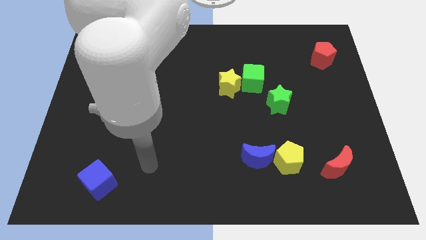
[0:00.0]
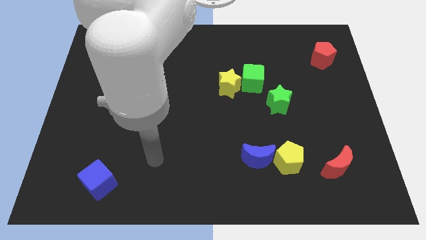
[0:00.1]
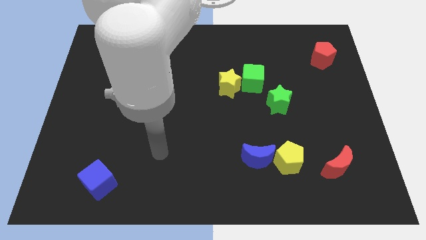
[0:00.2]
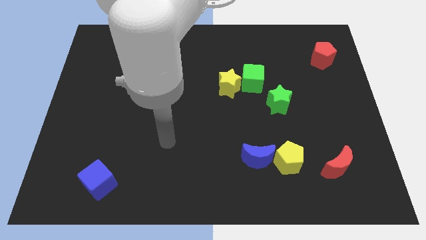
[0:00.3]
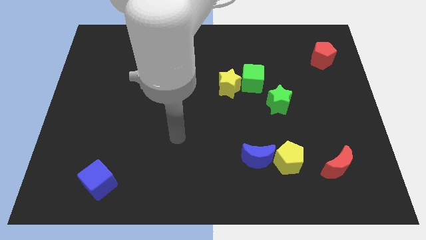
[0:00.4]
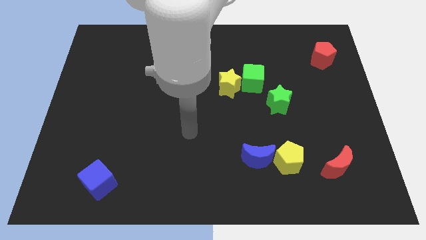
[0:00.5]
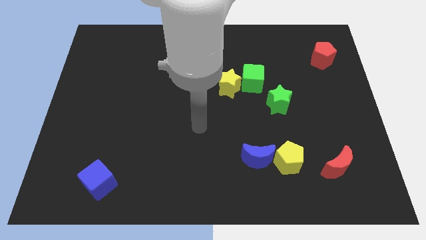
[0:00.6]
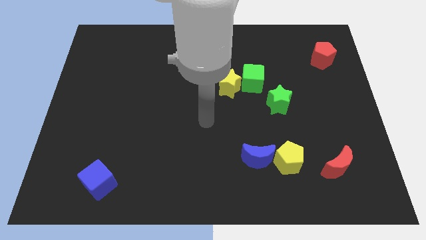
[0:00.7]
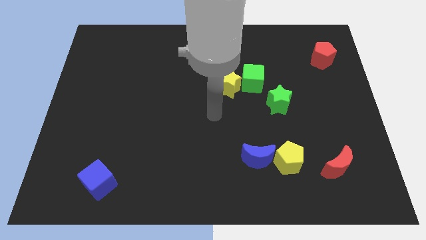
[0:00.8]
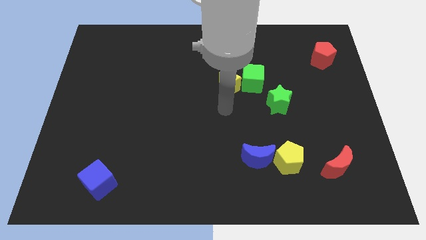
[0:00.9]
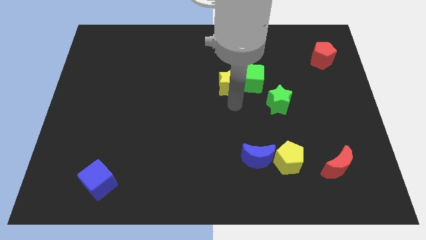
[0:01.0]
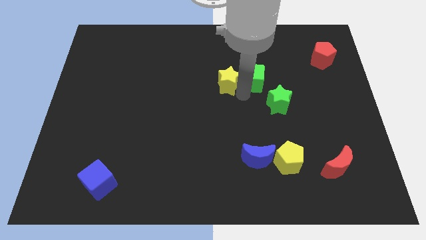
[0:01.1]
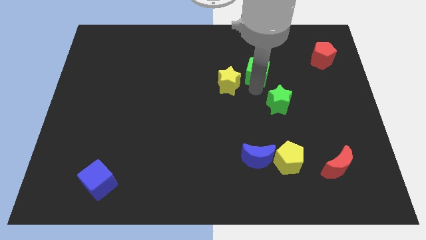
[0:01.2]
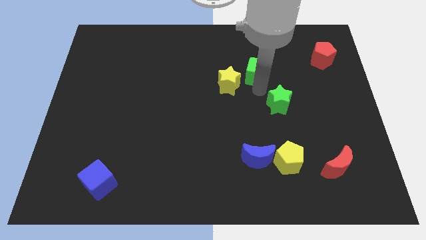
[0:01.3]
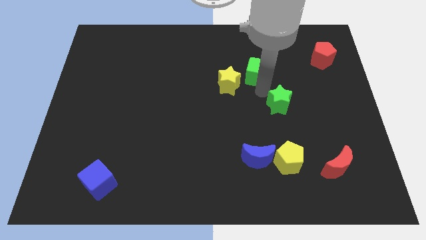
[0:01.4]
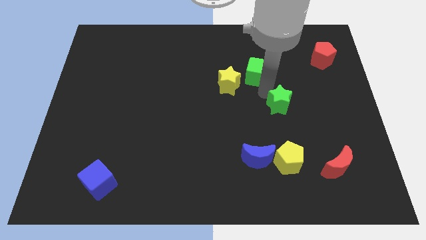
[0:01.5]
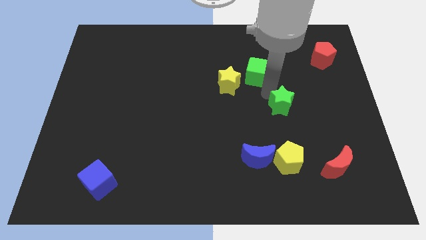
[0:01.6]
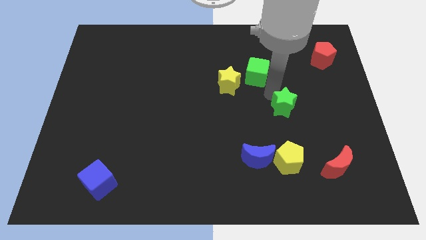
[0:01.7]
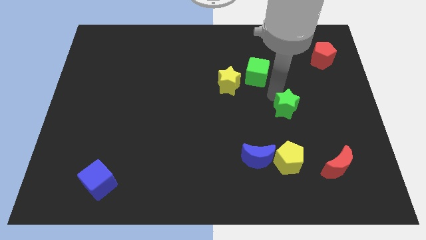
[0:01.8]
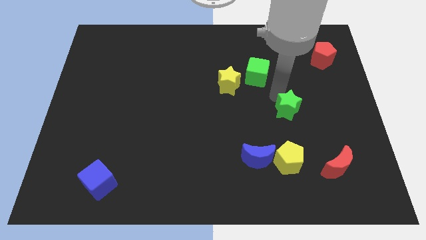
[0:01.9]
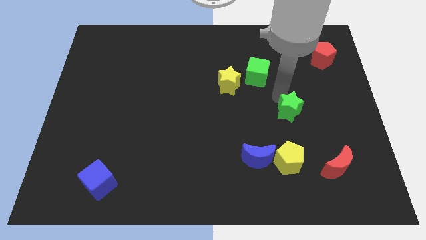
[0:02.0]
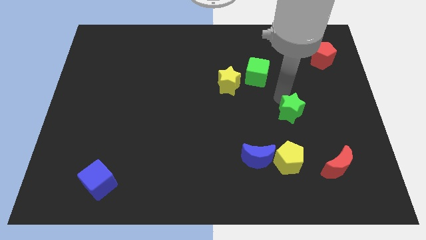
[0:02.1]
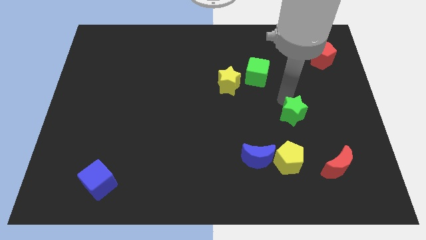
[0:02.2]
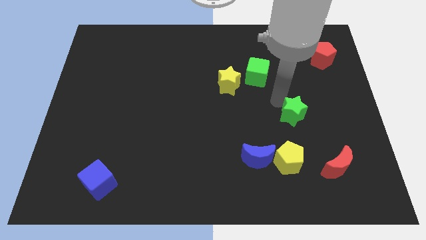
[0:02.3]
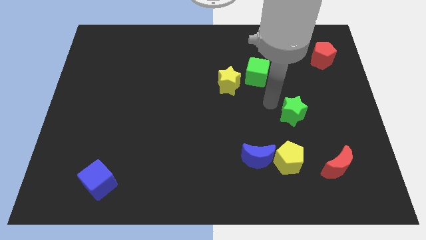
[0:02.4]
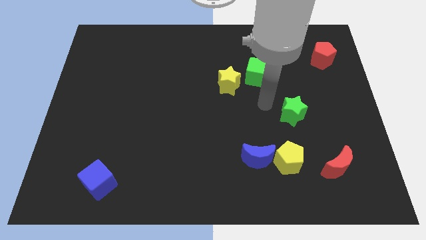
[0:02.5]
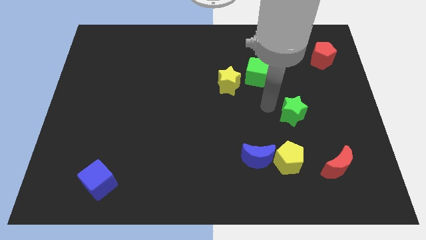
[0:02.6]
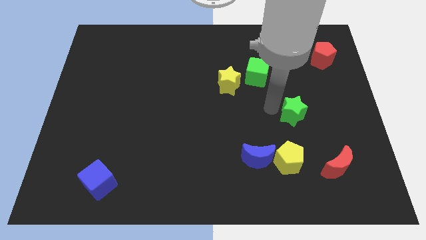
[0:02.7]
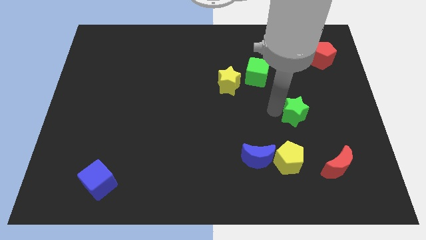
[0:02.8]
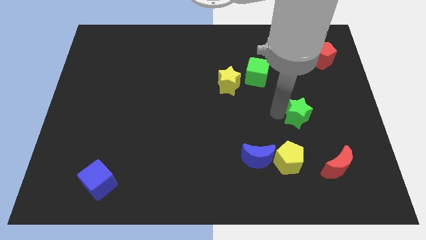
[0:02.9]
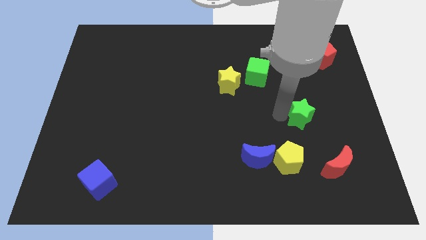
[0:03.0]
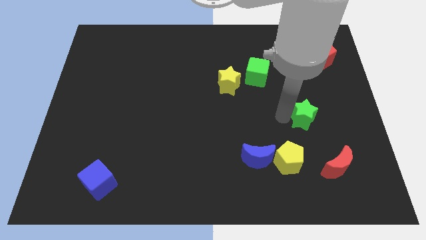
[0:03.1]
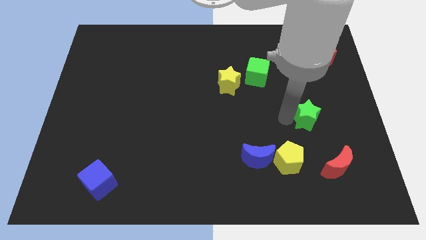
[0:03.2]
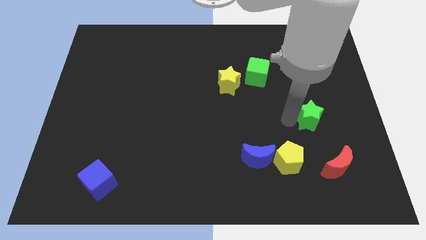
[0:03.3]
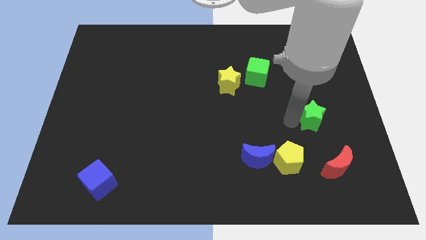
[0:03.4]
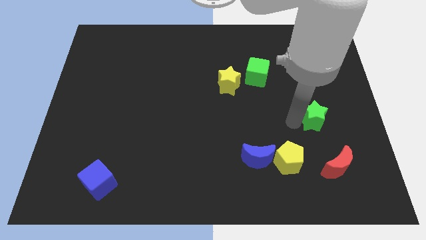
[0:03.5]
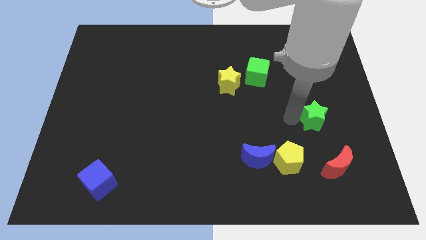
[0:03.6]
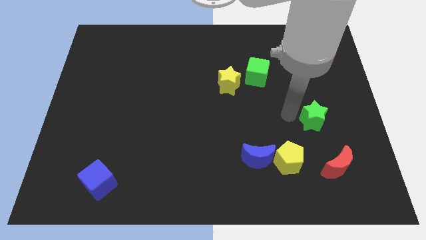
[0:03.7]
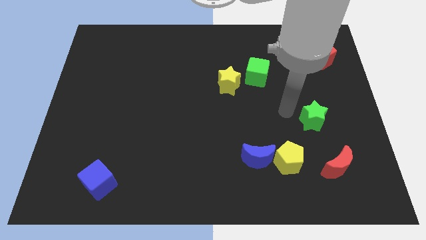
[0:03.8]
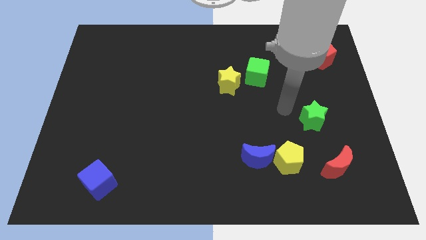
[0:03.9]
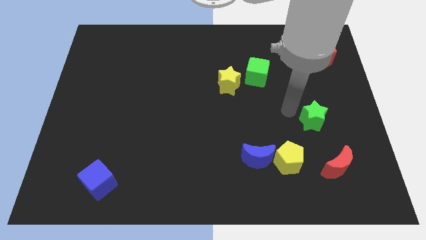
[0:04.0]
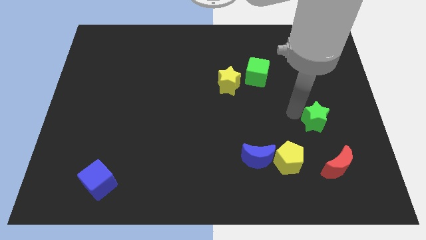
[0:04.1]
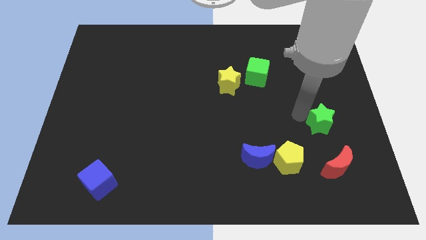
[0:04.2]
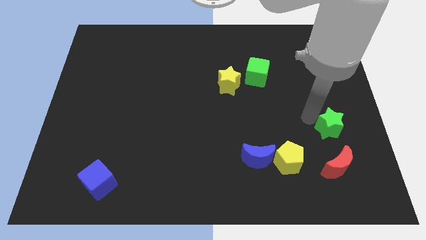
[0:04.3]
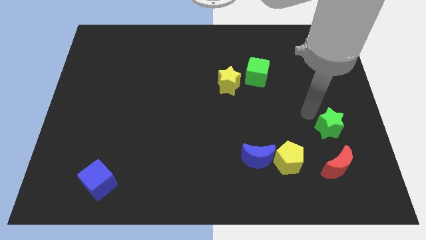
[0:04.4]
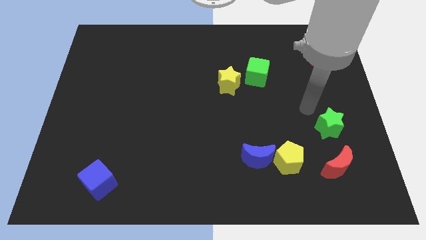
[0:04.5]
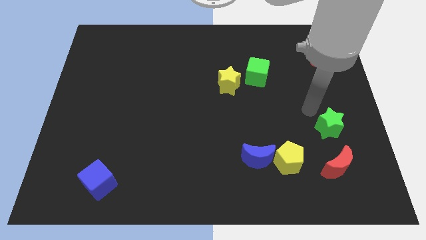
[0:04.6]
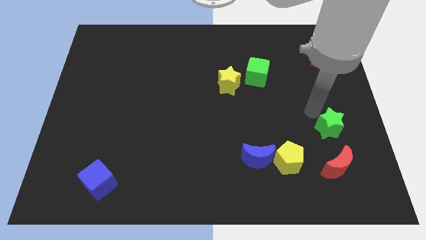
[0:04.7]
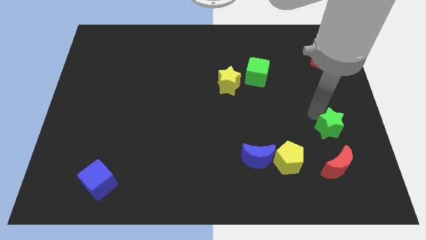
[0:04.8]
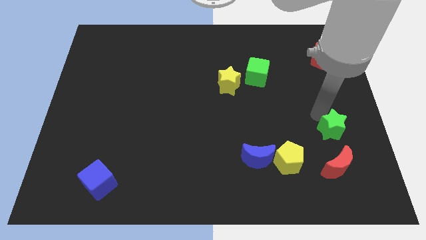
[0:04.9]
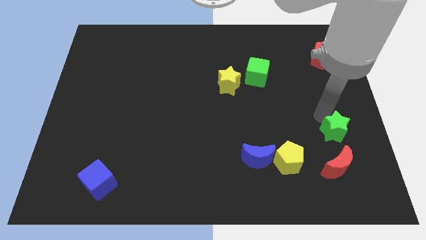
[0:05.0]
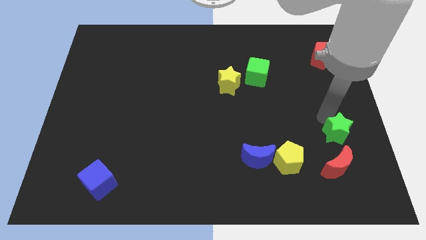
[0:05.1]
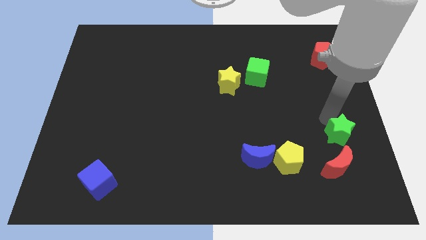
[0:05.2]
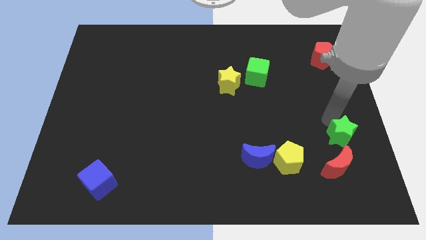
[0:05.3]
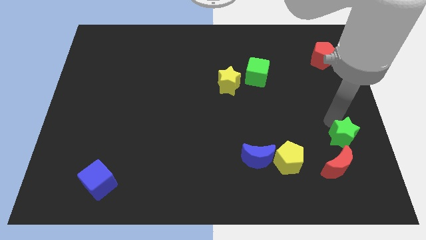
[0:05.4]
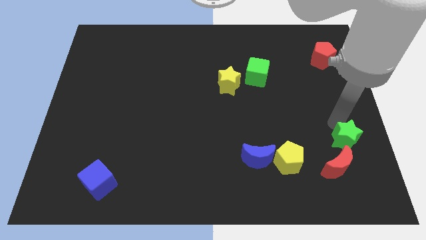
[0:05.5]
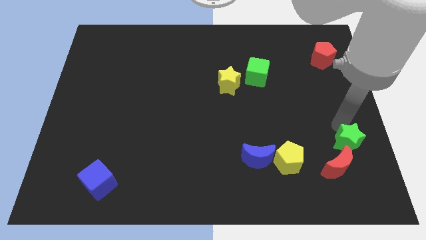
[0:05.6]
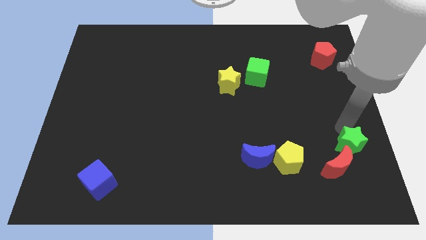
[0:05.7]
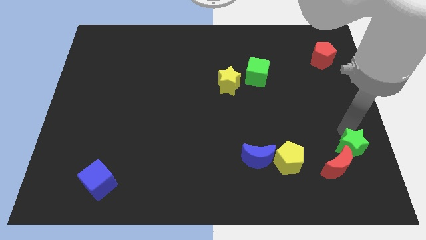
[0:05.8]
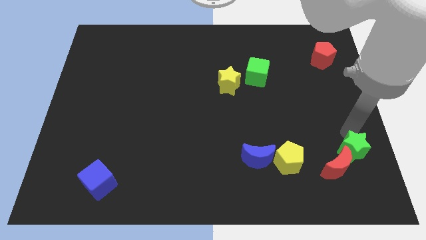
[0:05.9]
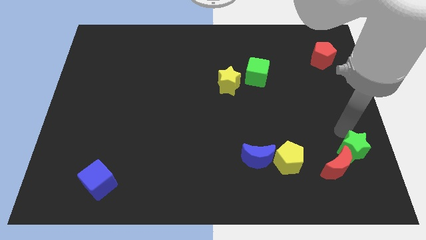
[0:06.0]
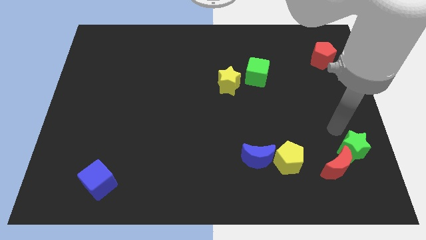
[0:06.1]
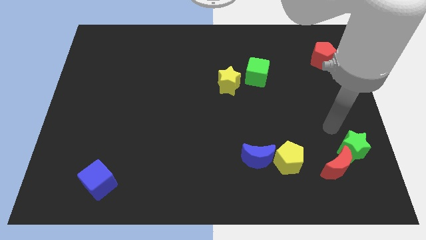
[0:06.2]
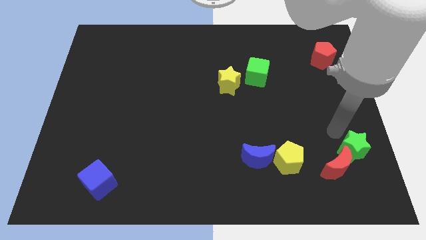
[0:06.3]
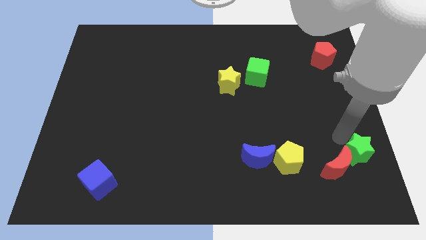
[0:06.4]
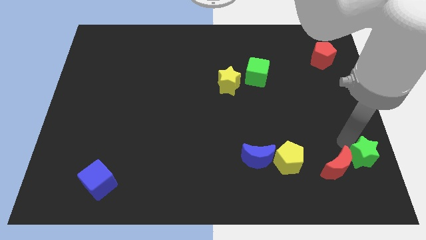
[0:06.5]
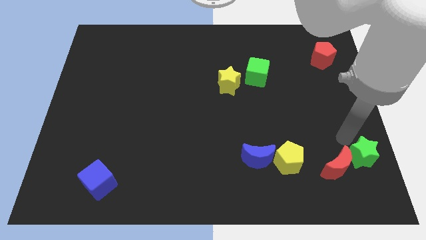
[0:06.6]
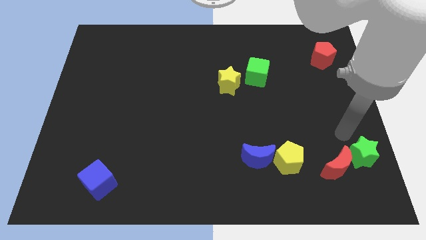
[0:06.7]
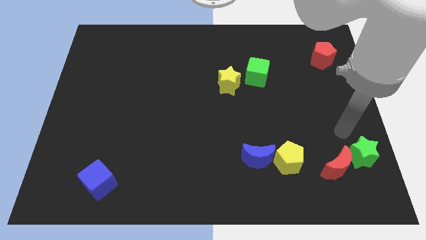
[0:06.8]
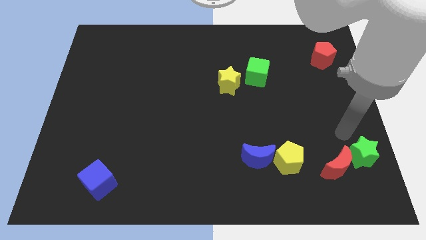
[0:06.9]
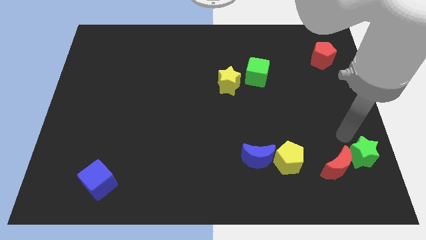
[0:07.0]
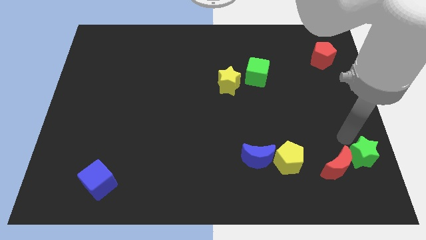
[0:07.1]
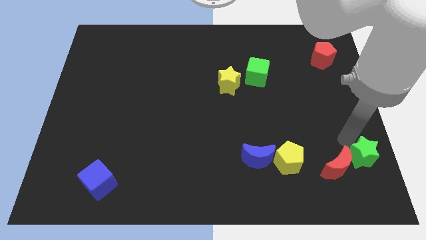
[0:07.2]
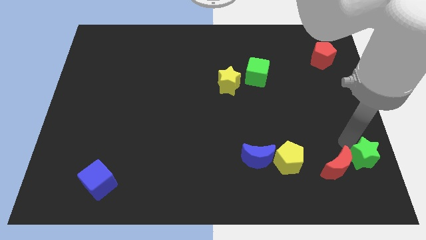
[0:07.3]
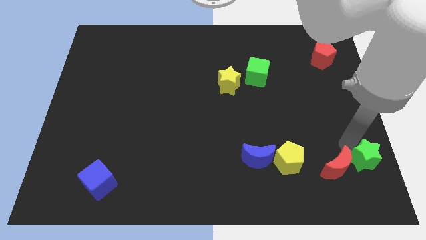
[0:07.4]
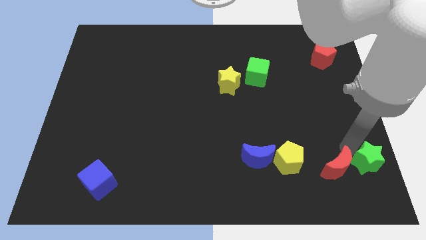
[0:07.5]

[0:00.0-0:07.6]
put the green star to the bottom right
